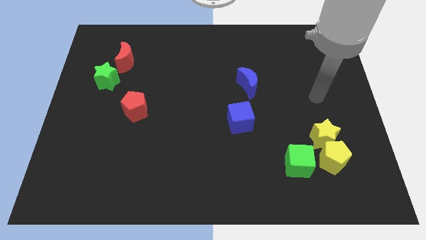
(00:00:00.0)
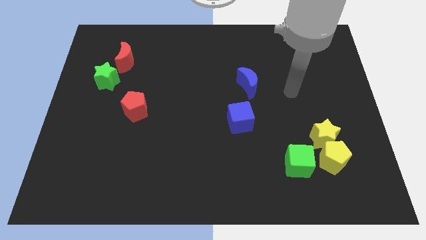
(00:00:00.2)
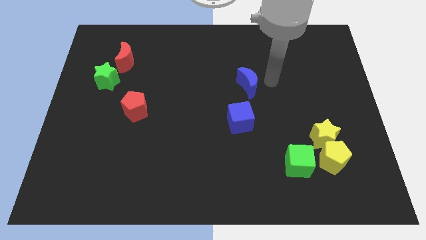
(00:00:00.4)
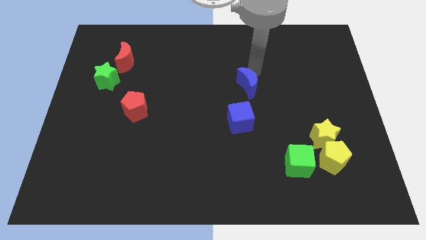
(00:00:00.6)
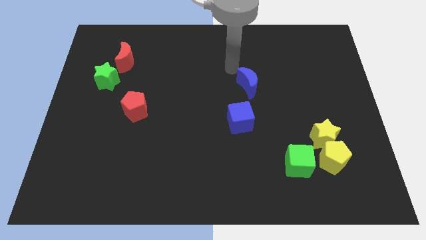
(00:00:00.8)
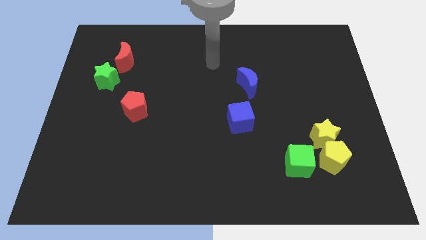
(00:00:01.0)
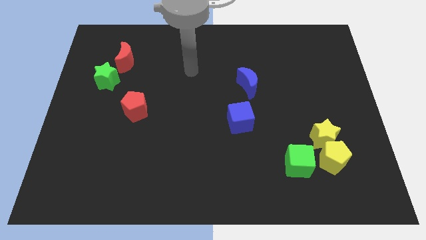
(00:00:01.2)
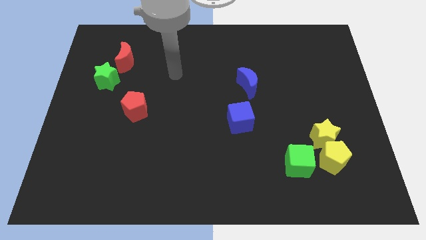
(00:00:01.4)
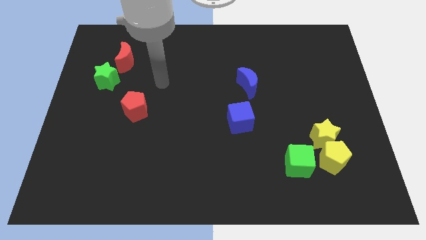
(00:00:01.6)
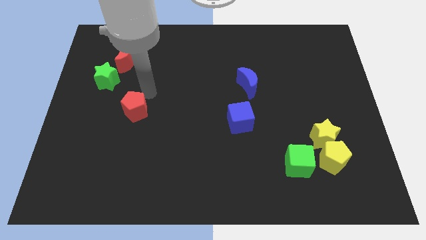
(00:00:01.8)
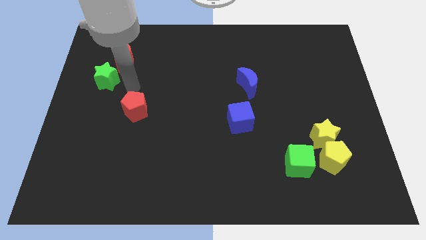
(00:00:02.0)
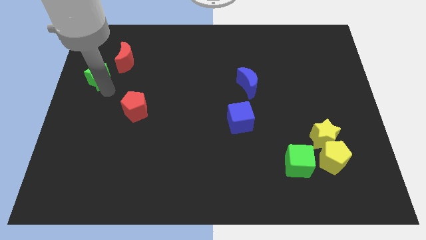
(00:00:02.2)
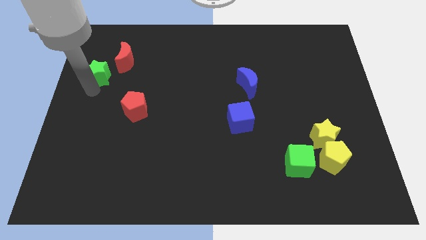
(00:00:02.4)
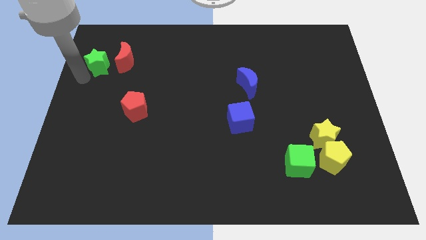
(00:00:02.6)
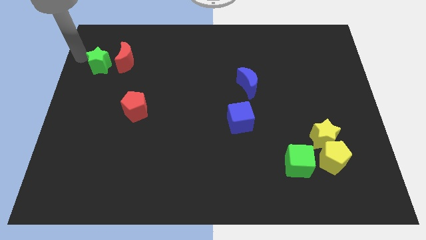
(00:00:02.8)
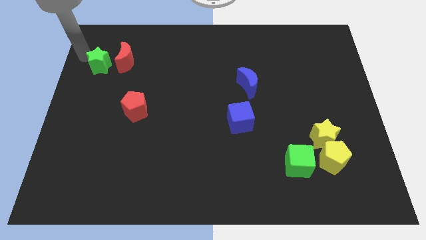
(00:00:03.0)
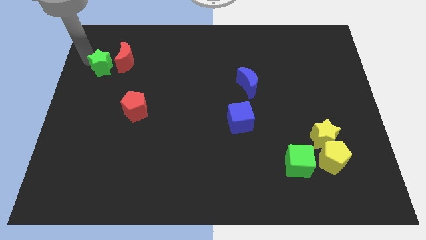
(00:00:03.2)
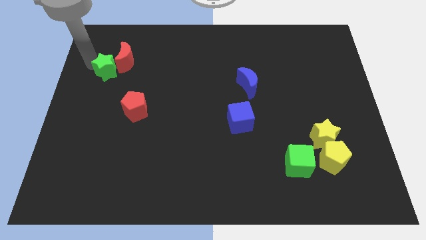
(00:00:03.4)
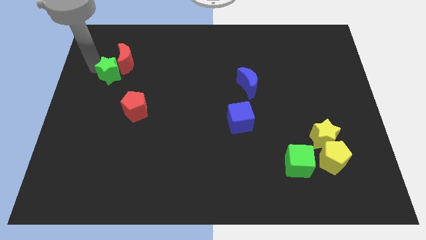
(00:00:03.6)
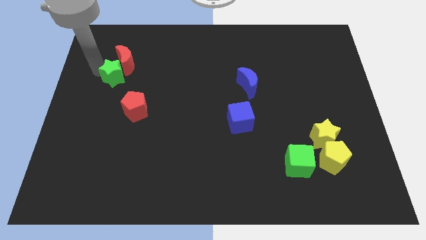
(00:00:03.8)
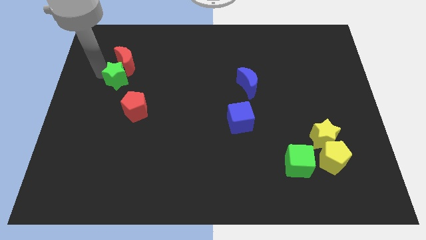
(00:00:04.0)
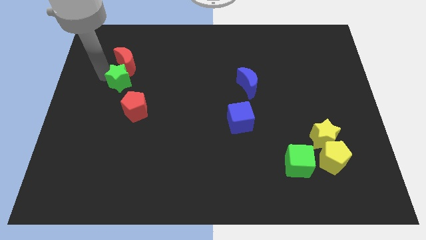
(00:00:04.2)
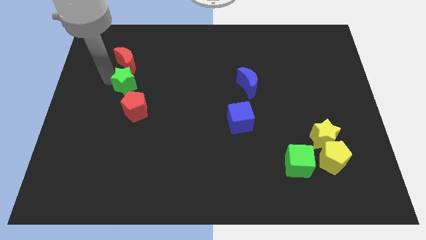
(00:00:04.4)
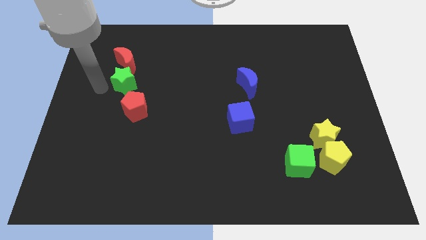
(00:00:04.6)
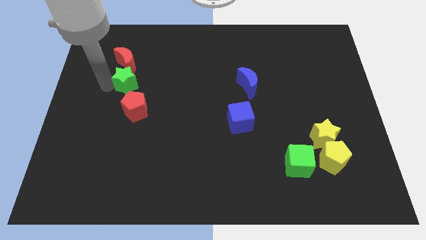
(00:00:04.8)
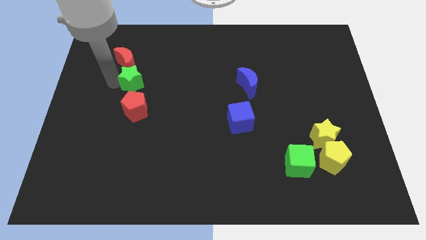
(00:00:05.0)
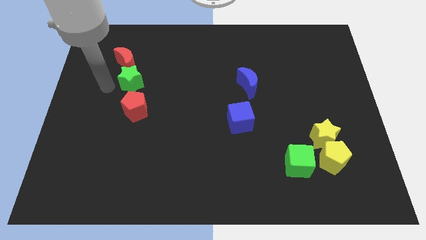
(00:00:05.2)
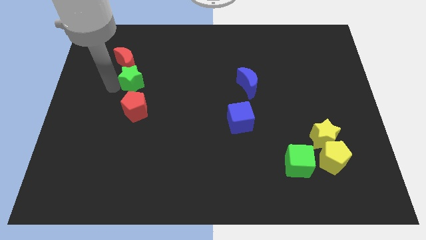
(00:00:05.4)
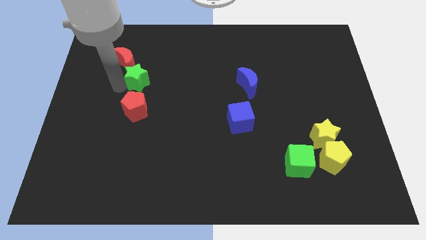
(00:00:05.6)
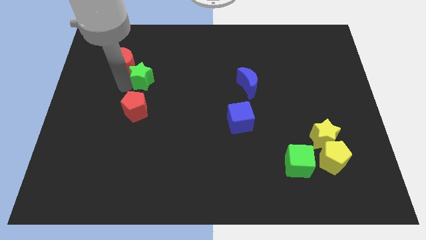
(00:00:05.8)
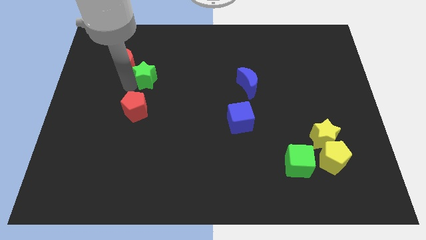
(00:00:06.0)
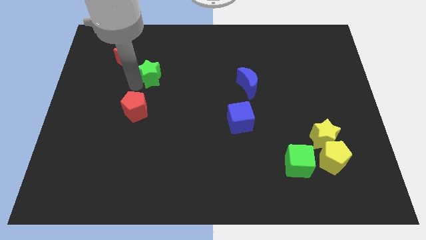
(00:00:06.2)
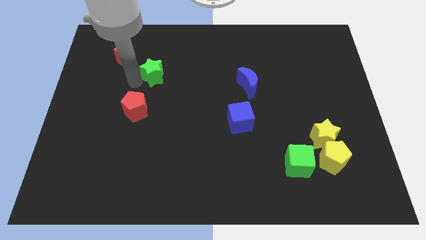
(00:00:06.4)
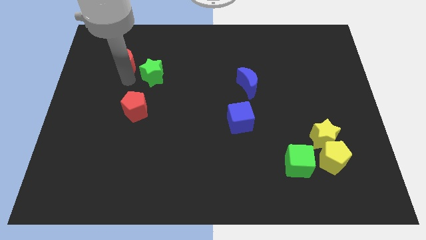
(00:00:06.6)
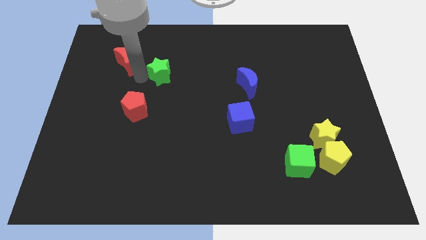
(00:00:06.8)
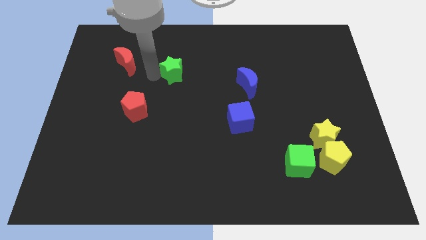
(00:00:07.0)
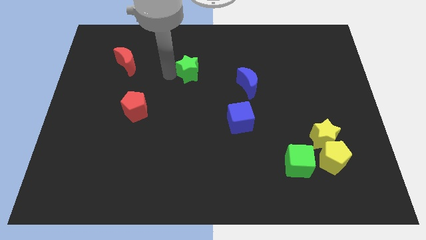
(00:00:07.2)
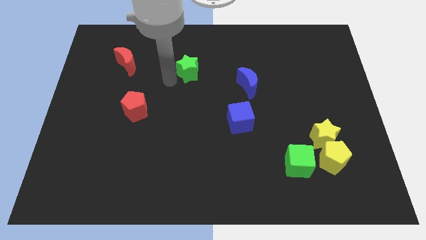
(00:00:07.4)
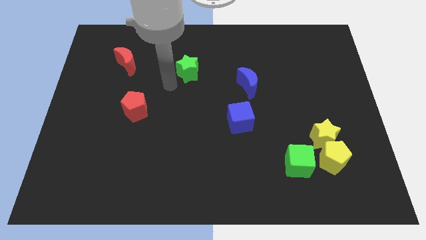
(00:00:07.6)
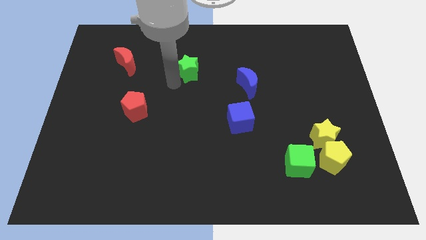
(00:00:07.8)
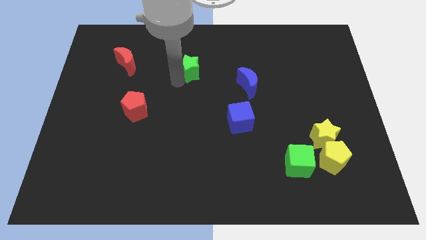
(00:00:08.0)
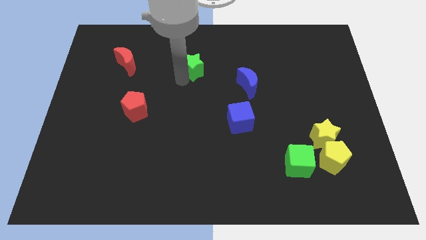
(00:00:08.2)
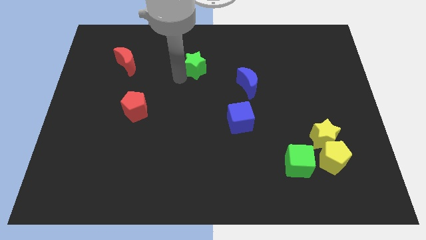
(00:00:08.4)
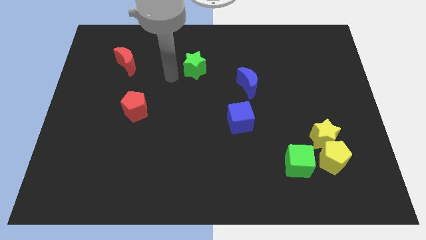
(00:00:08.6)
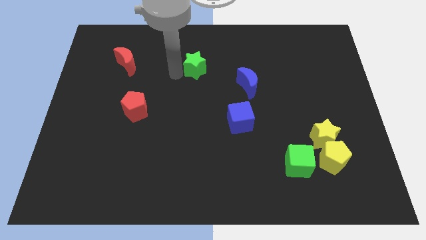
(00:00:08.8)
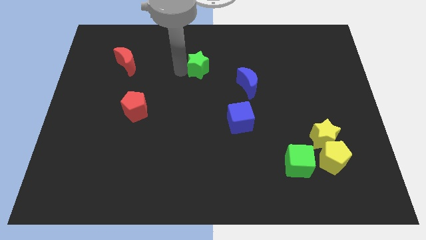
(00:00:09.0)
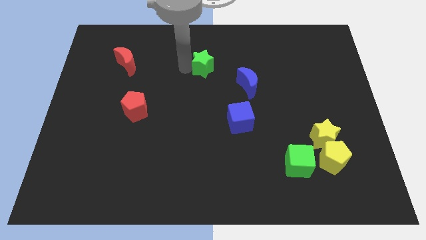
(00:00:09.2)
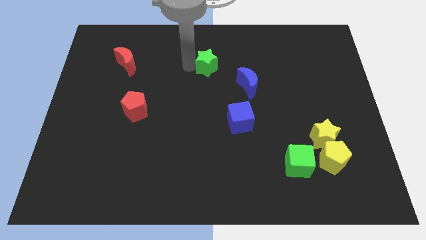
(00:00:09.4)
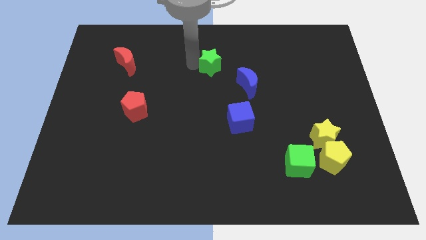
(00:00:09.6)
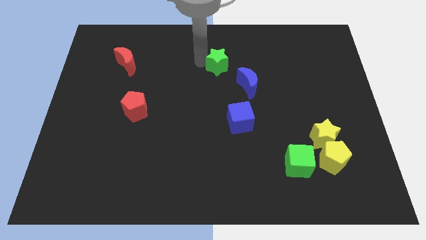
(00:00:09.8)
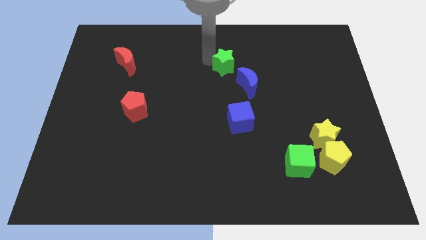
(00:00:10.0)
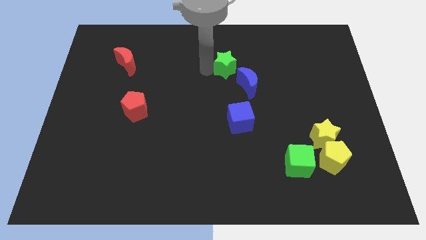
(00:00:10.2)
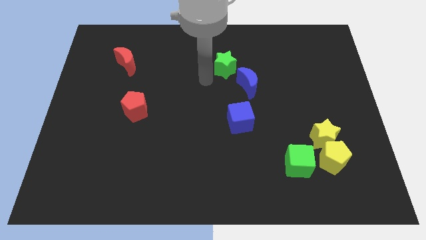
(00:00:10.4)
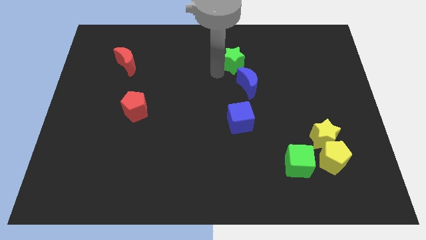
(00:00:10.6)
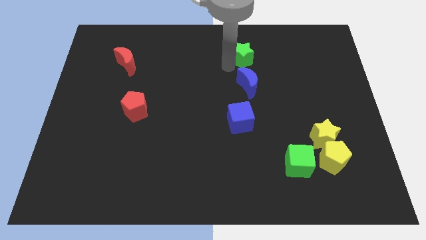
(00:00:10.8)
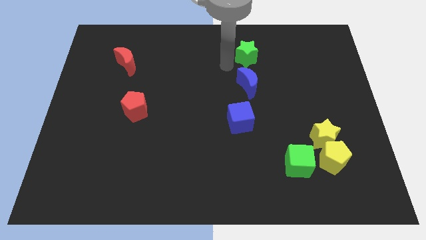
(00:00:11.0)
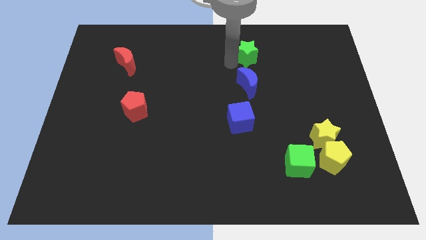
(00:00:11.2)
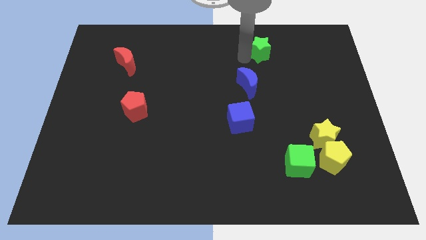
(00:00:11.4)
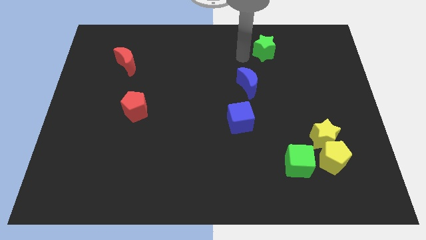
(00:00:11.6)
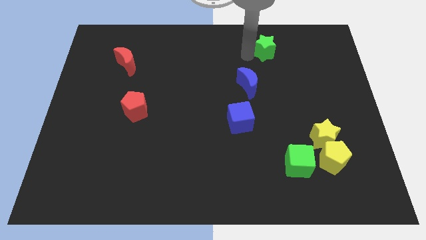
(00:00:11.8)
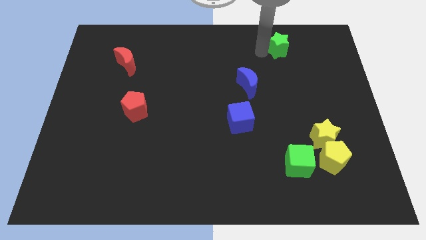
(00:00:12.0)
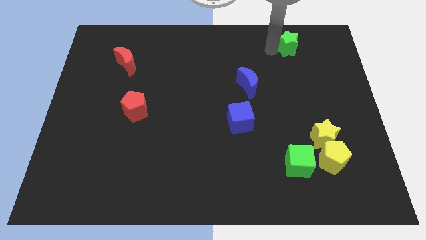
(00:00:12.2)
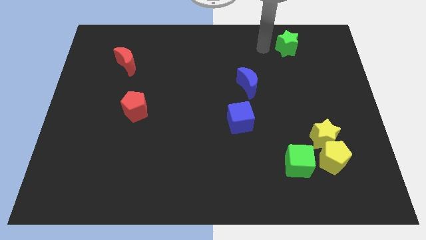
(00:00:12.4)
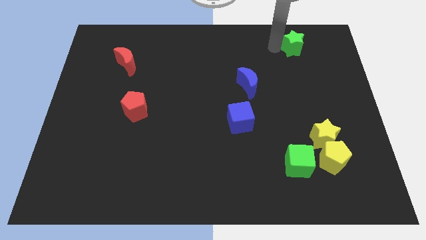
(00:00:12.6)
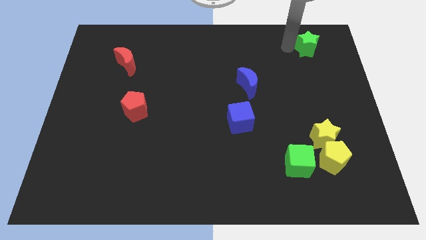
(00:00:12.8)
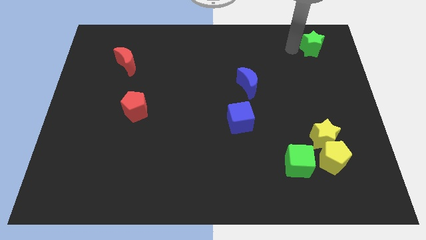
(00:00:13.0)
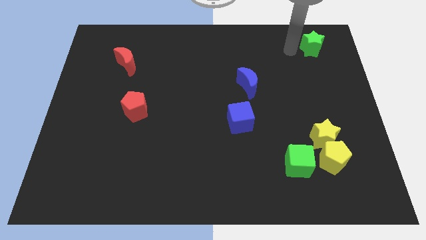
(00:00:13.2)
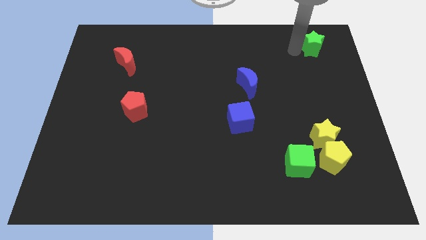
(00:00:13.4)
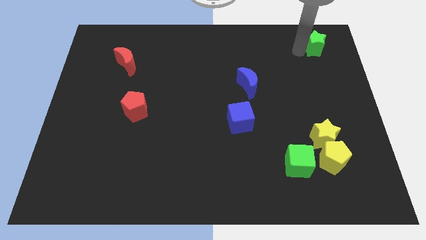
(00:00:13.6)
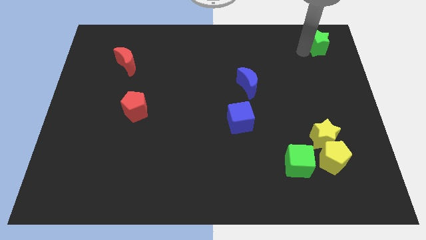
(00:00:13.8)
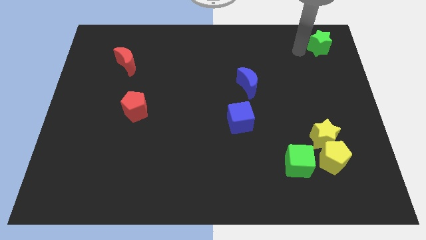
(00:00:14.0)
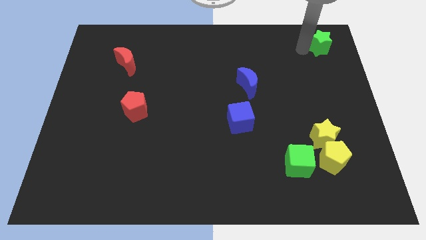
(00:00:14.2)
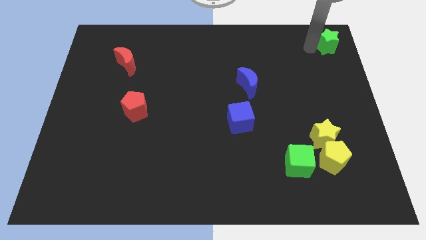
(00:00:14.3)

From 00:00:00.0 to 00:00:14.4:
move the green star to the top right of the board
